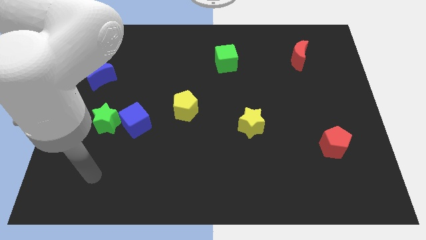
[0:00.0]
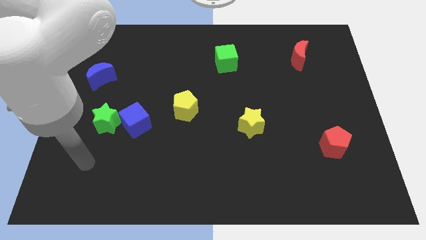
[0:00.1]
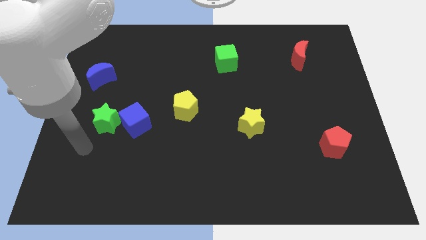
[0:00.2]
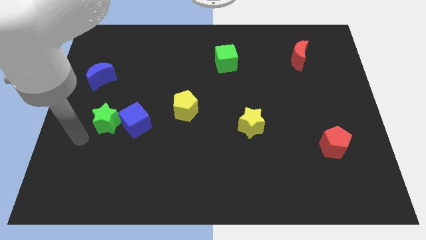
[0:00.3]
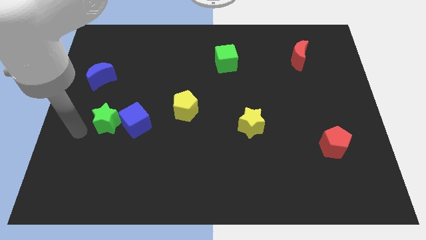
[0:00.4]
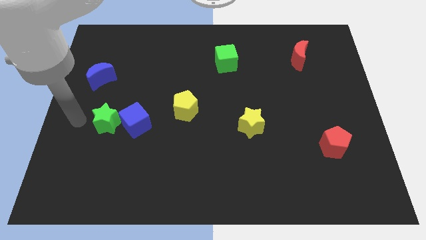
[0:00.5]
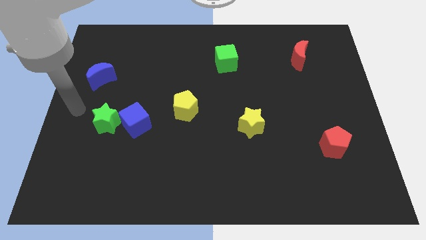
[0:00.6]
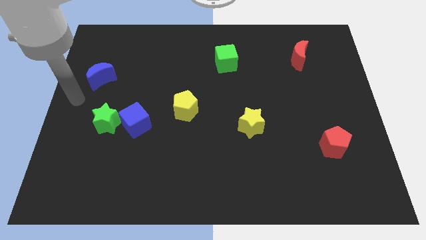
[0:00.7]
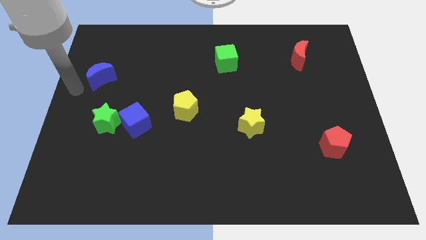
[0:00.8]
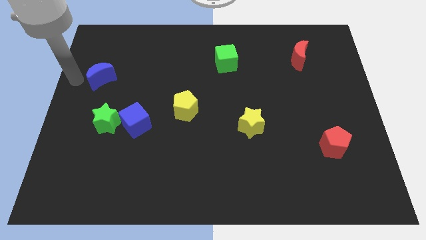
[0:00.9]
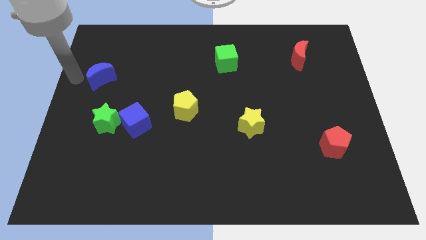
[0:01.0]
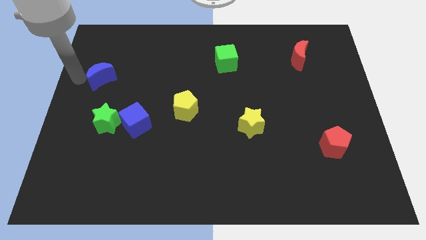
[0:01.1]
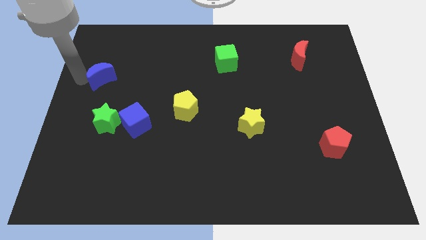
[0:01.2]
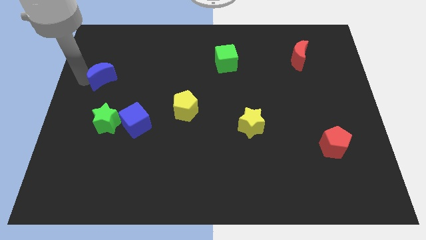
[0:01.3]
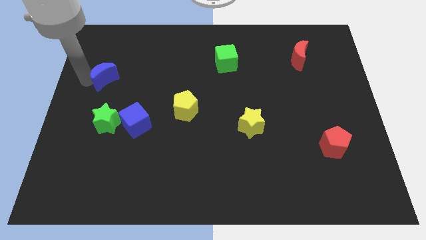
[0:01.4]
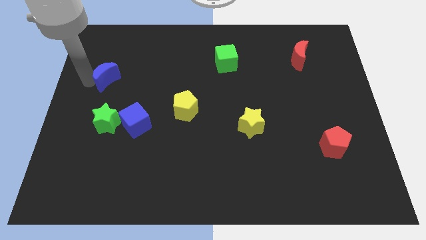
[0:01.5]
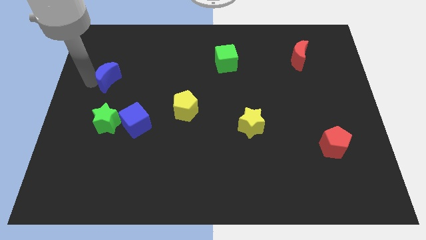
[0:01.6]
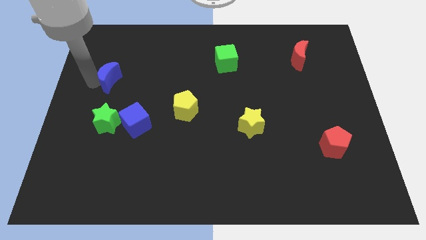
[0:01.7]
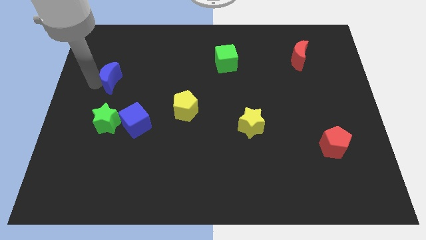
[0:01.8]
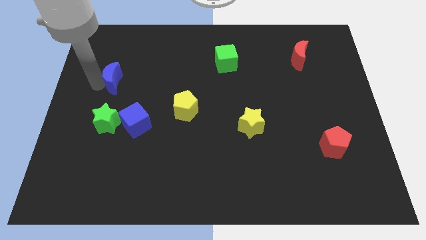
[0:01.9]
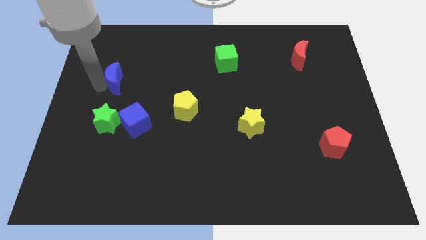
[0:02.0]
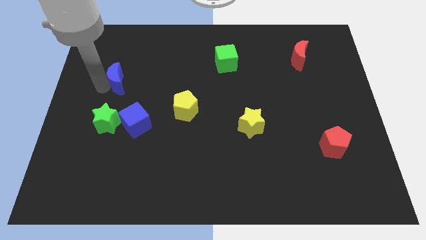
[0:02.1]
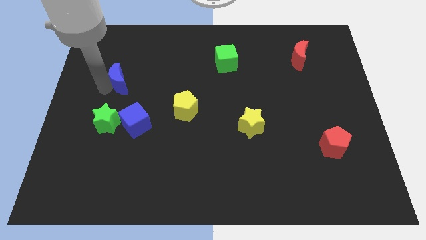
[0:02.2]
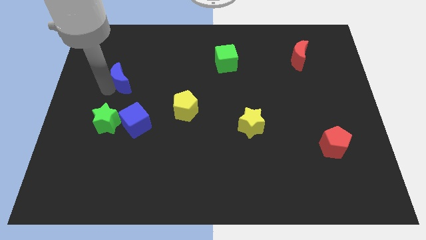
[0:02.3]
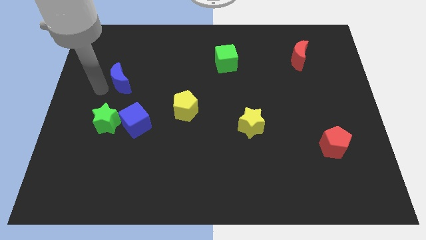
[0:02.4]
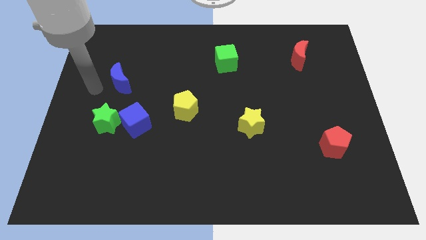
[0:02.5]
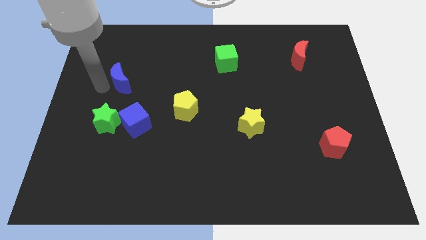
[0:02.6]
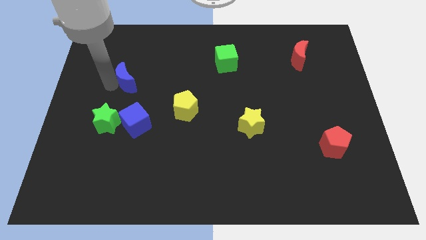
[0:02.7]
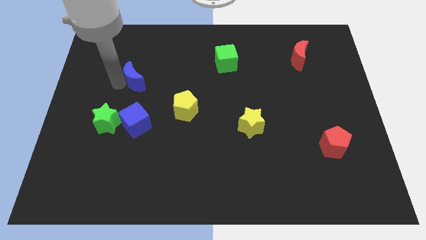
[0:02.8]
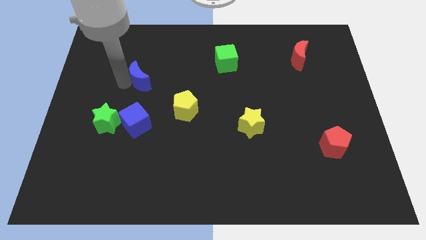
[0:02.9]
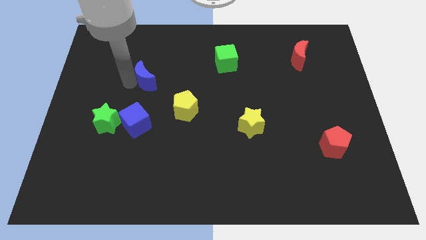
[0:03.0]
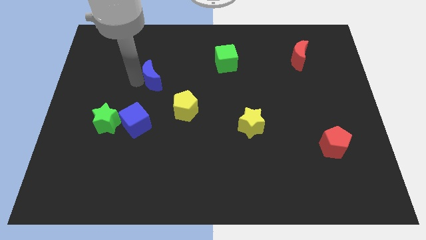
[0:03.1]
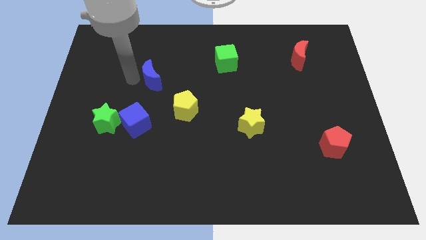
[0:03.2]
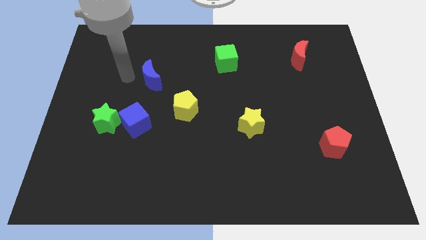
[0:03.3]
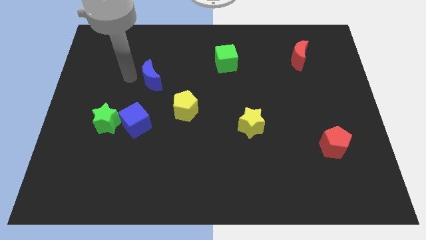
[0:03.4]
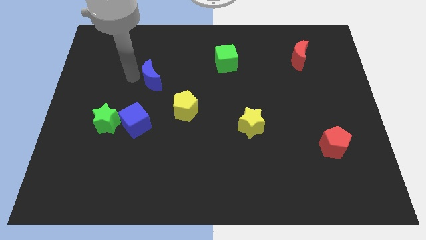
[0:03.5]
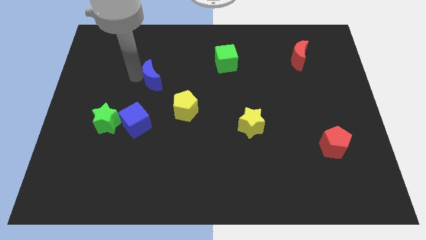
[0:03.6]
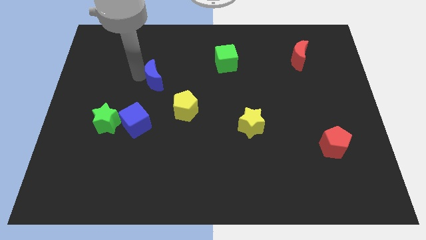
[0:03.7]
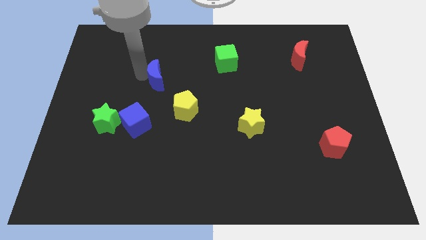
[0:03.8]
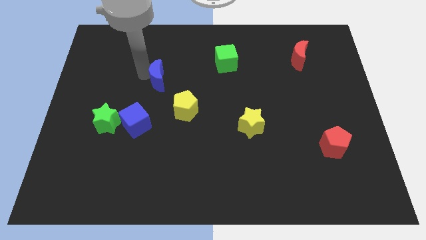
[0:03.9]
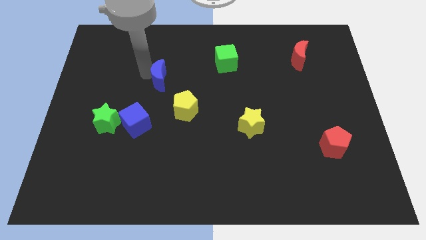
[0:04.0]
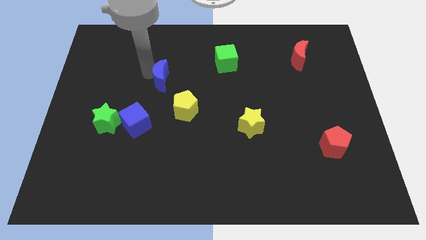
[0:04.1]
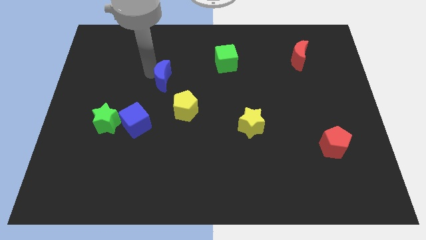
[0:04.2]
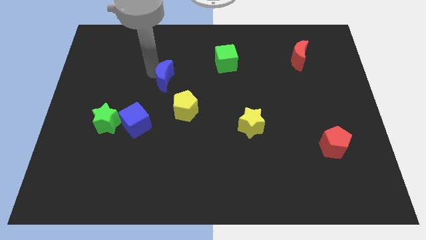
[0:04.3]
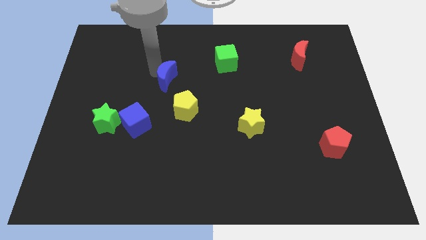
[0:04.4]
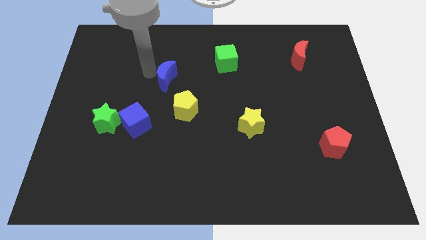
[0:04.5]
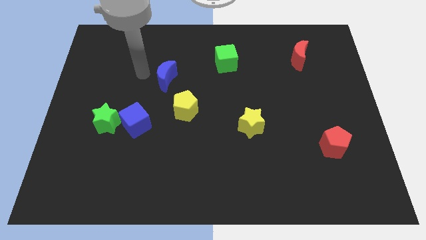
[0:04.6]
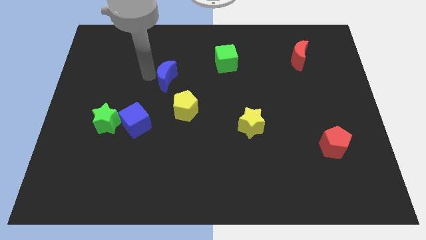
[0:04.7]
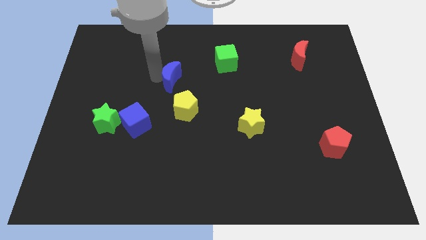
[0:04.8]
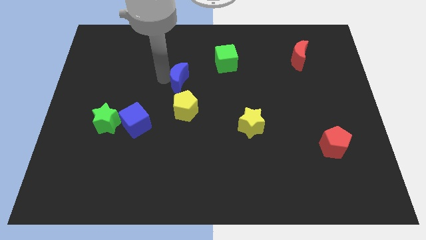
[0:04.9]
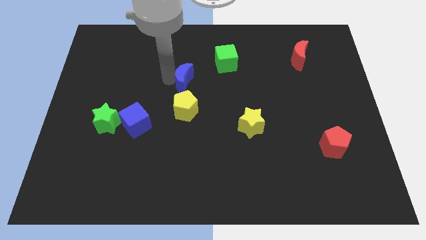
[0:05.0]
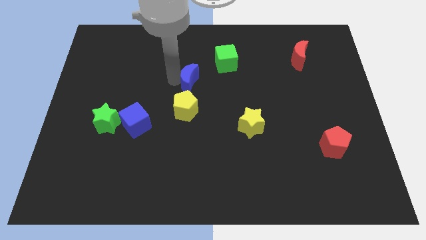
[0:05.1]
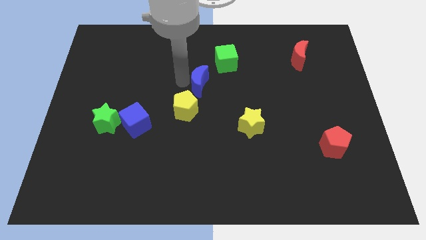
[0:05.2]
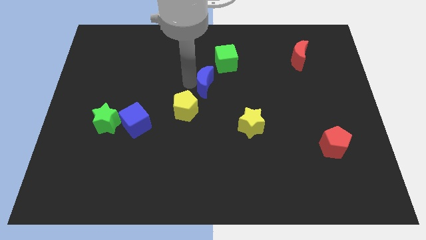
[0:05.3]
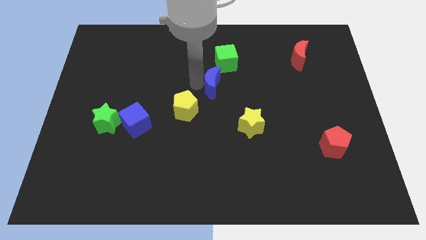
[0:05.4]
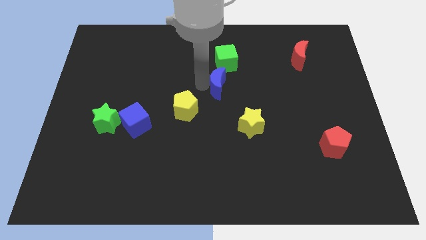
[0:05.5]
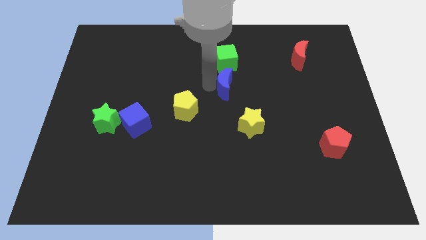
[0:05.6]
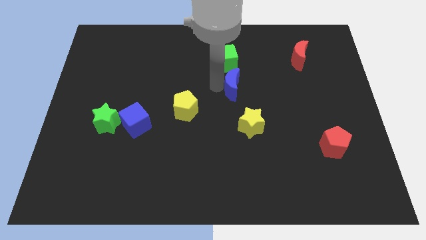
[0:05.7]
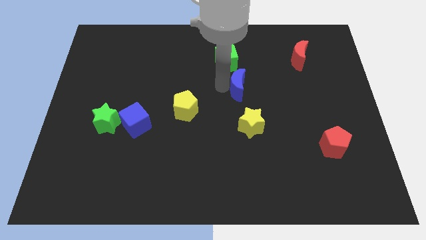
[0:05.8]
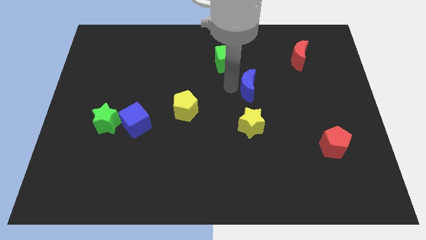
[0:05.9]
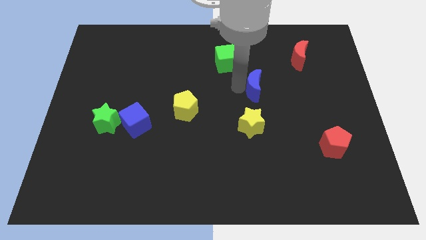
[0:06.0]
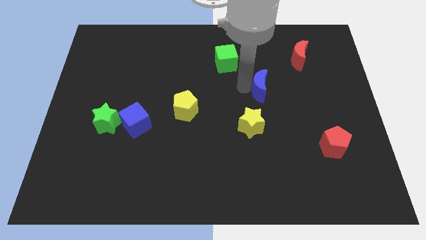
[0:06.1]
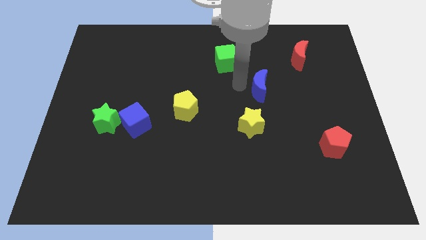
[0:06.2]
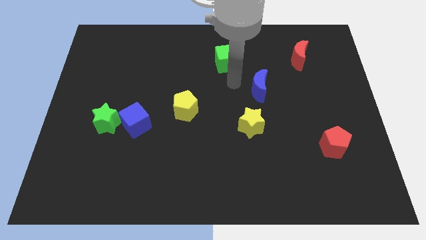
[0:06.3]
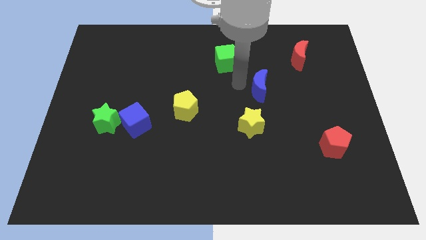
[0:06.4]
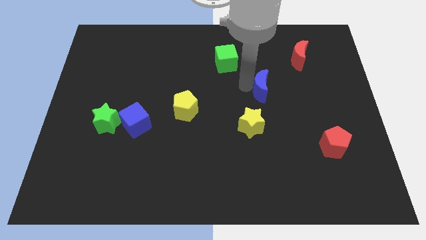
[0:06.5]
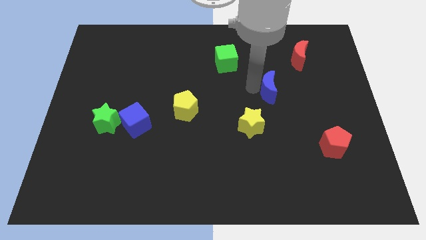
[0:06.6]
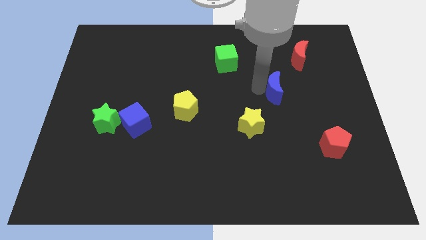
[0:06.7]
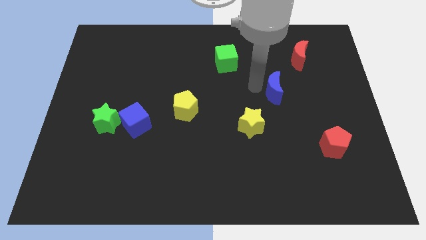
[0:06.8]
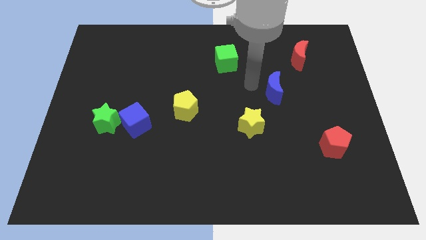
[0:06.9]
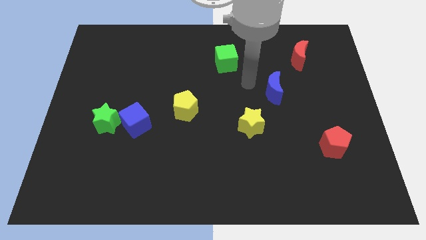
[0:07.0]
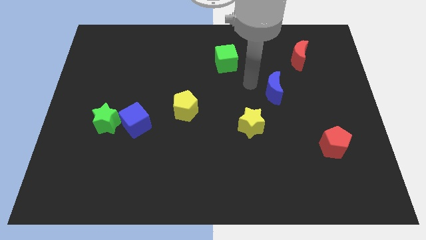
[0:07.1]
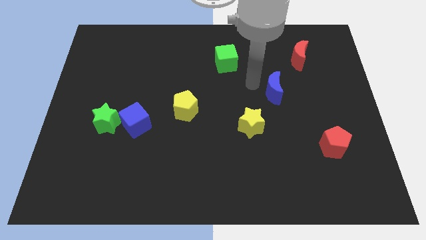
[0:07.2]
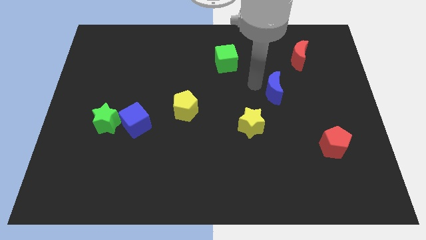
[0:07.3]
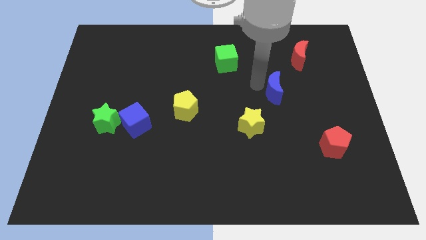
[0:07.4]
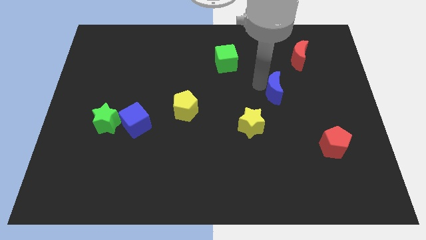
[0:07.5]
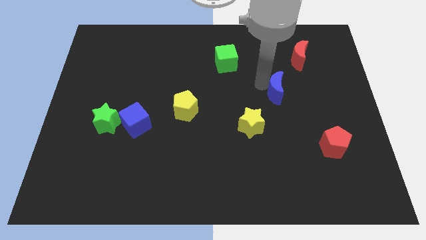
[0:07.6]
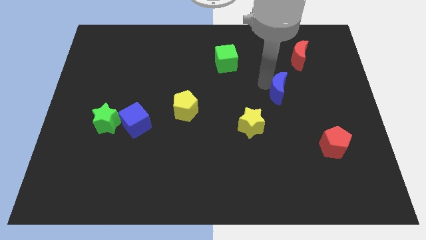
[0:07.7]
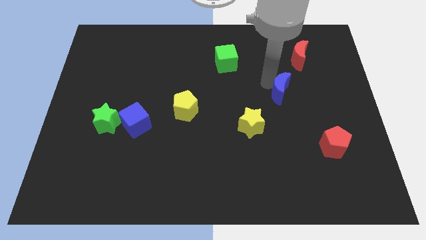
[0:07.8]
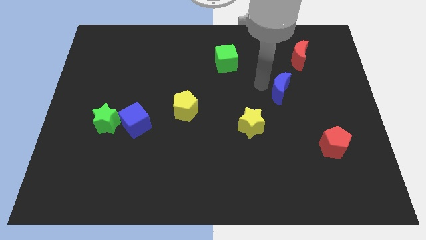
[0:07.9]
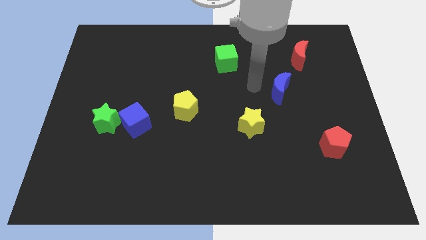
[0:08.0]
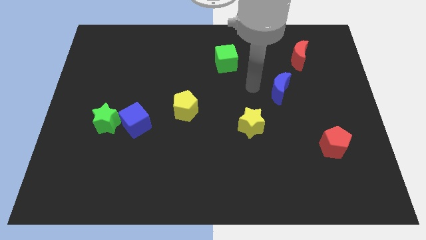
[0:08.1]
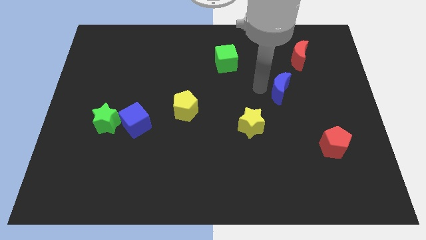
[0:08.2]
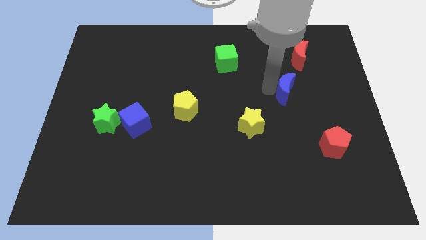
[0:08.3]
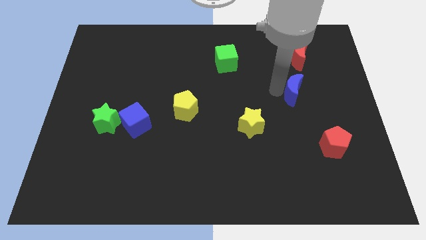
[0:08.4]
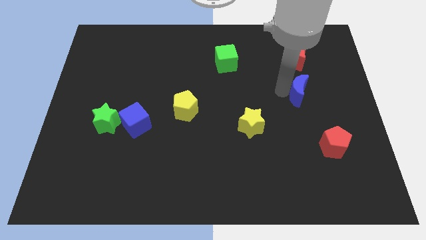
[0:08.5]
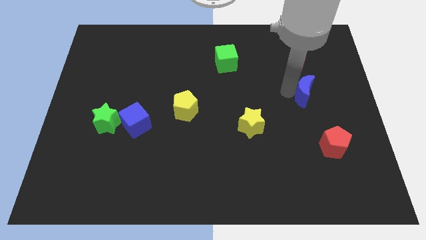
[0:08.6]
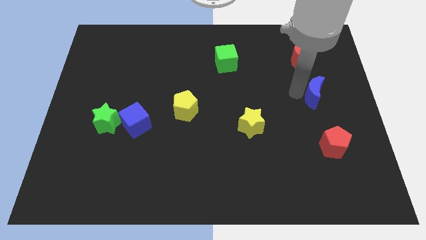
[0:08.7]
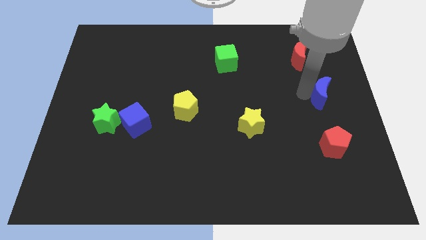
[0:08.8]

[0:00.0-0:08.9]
push the blue moon to the right side of the board
